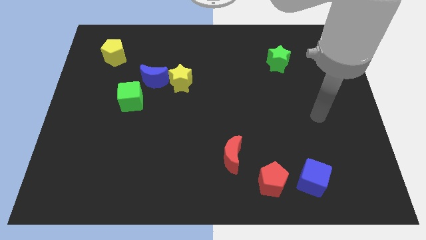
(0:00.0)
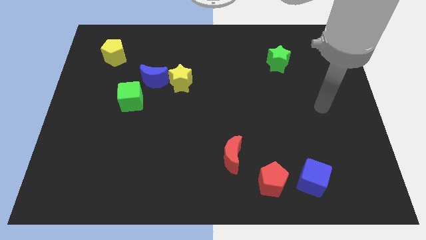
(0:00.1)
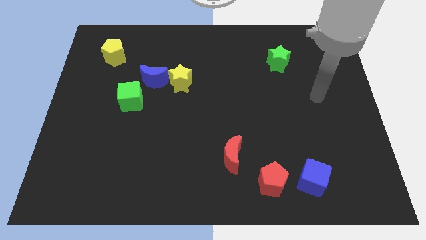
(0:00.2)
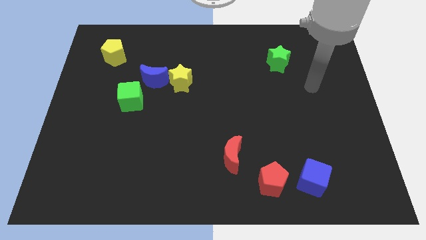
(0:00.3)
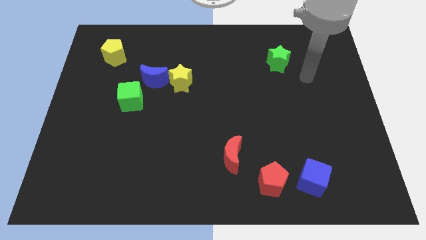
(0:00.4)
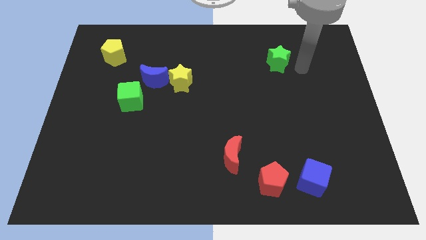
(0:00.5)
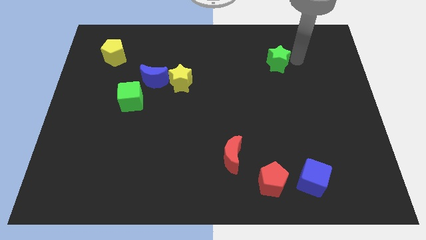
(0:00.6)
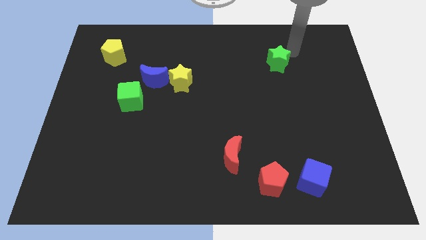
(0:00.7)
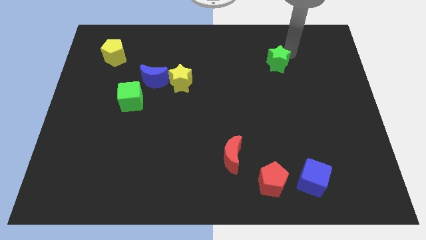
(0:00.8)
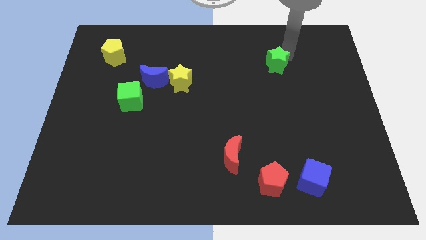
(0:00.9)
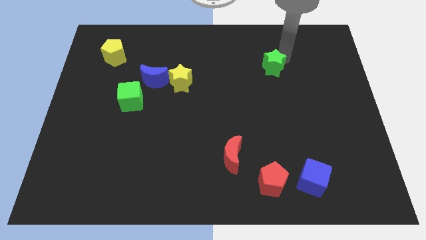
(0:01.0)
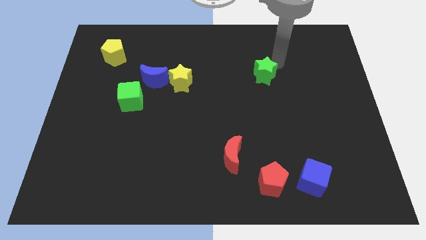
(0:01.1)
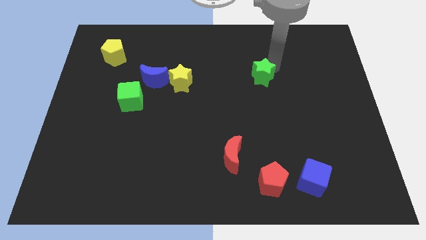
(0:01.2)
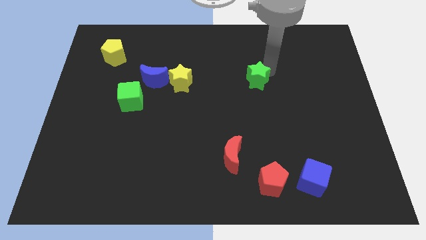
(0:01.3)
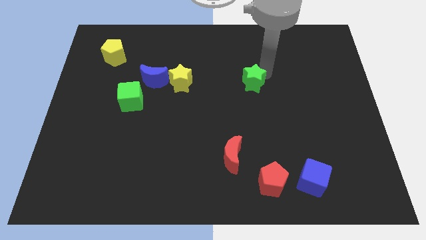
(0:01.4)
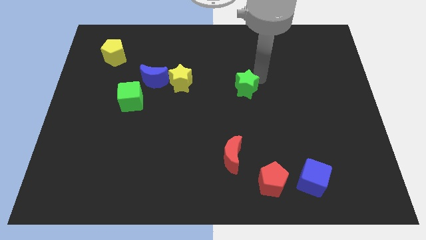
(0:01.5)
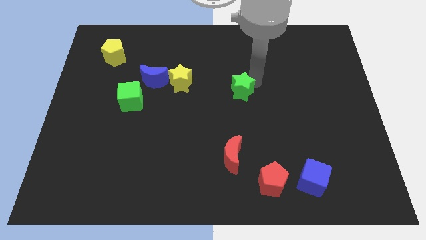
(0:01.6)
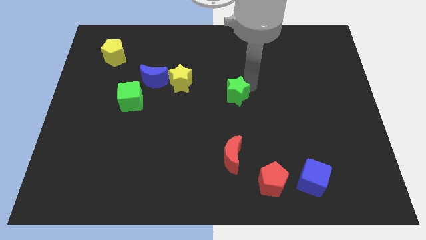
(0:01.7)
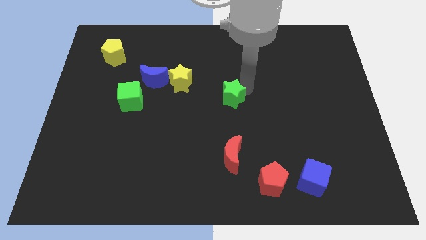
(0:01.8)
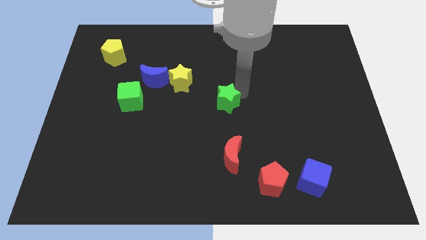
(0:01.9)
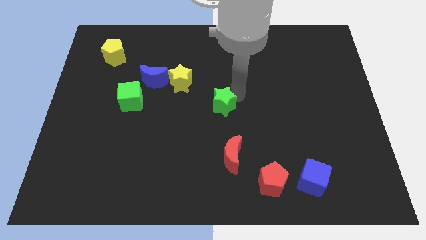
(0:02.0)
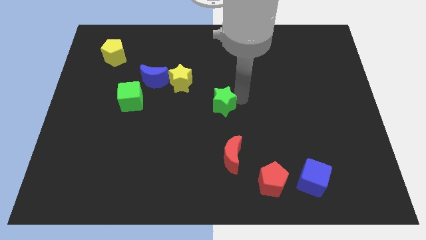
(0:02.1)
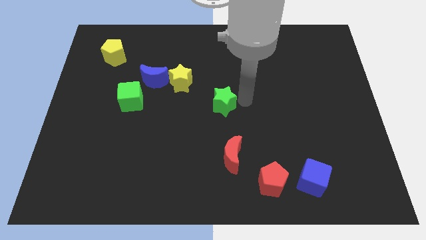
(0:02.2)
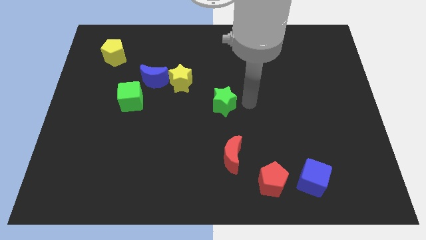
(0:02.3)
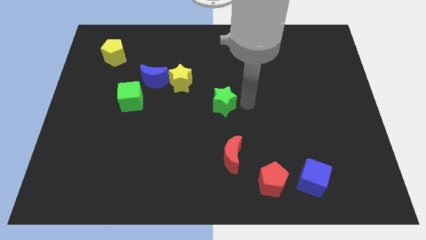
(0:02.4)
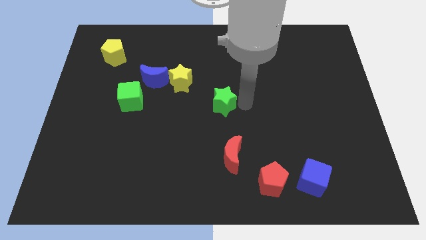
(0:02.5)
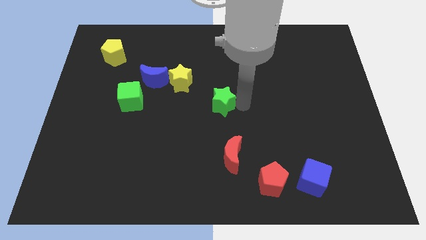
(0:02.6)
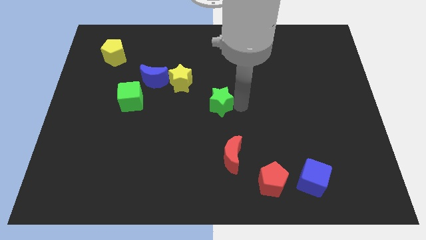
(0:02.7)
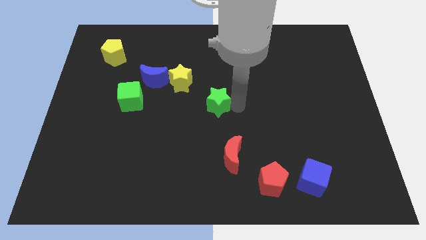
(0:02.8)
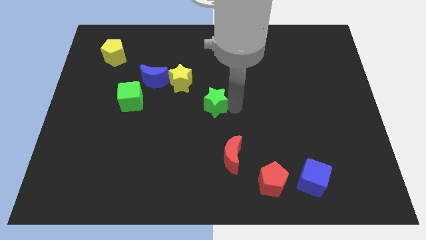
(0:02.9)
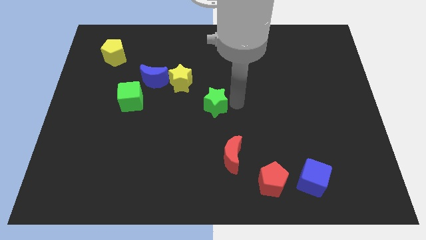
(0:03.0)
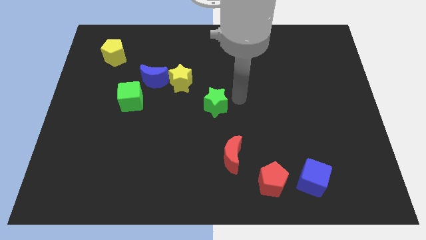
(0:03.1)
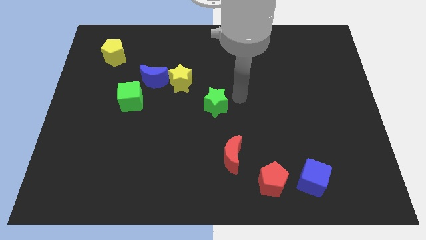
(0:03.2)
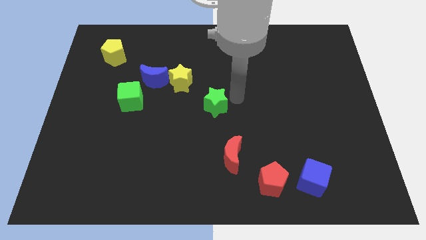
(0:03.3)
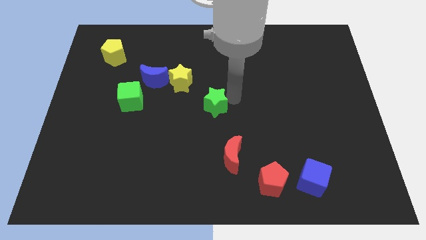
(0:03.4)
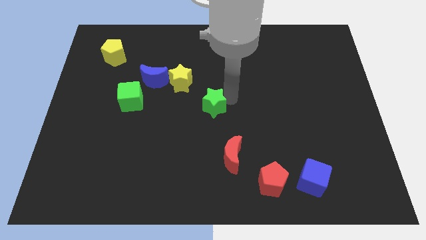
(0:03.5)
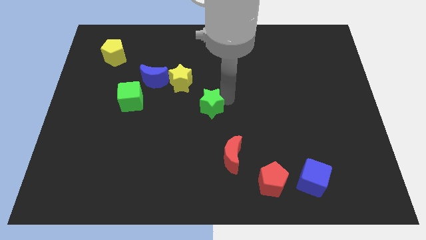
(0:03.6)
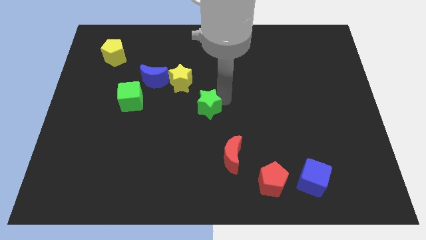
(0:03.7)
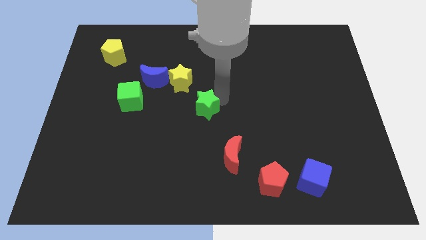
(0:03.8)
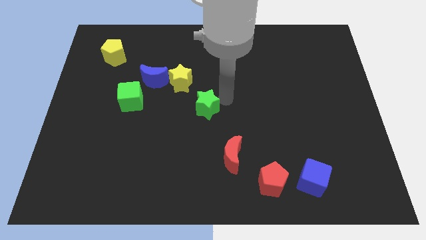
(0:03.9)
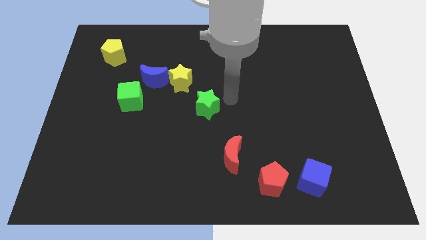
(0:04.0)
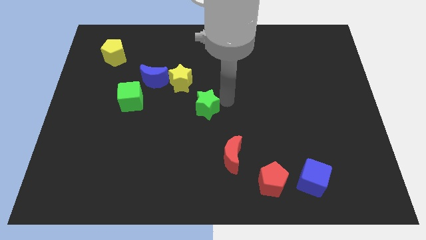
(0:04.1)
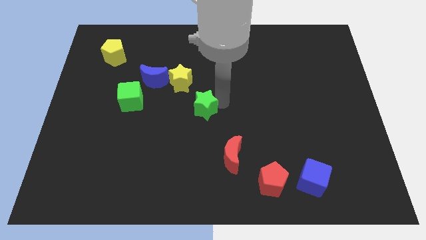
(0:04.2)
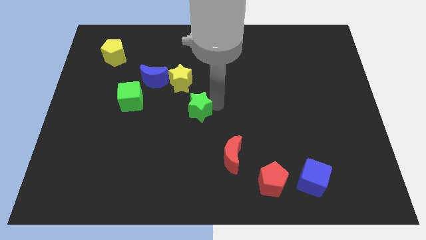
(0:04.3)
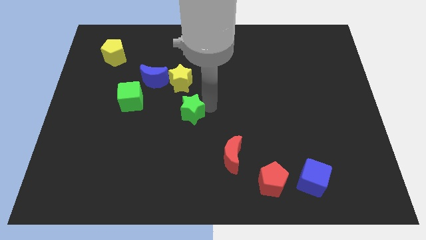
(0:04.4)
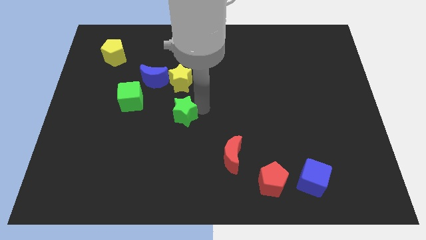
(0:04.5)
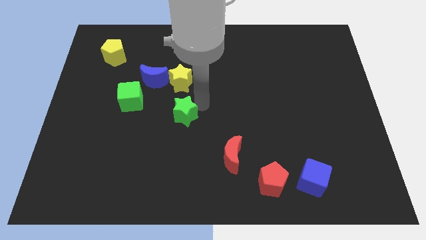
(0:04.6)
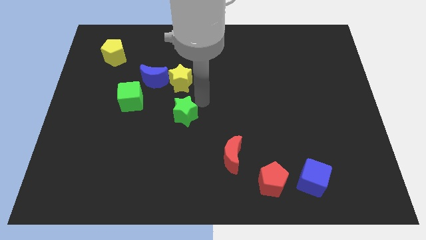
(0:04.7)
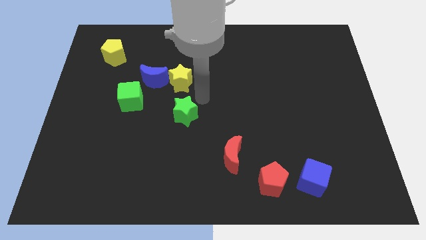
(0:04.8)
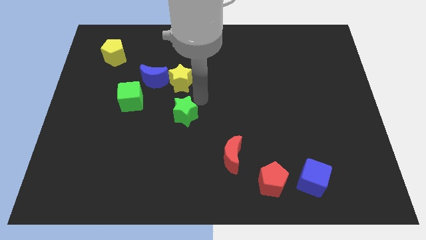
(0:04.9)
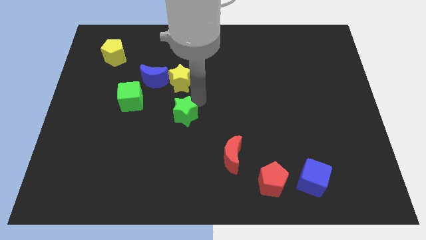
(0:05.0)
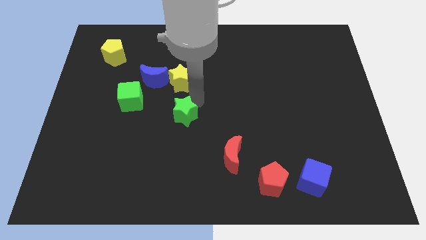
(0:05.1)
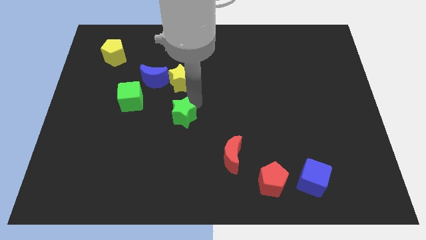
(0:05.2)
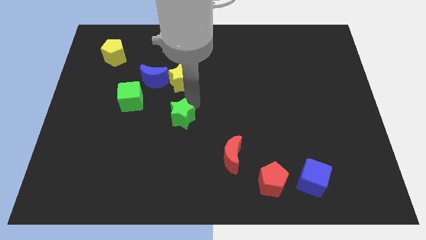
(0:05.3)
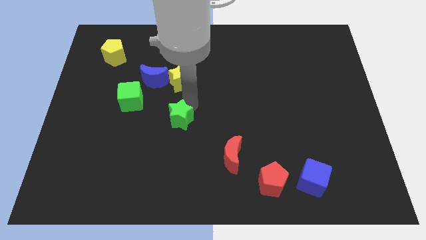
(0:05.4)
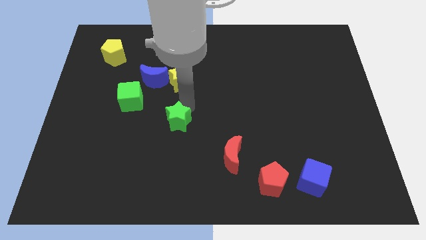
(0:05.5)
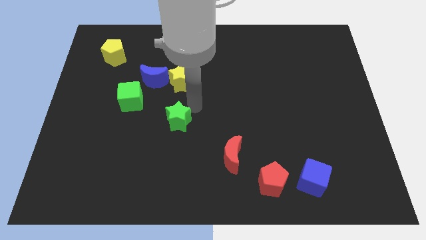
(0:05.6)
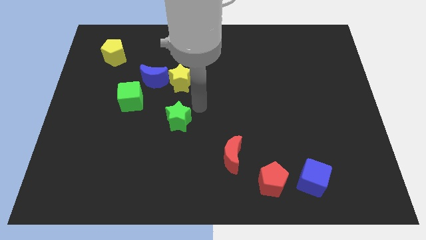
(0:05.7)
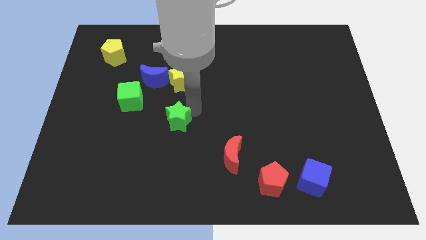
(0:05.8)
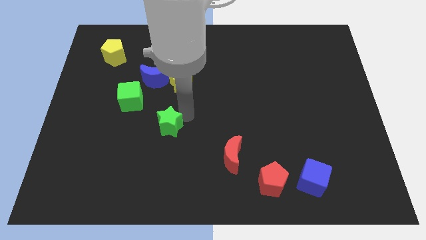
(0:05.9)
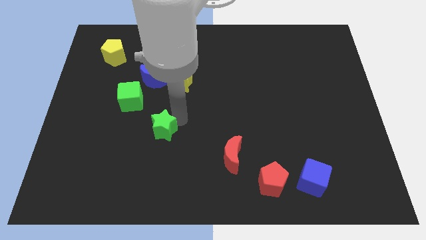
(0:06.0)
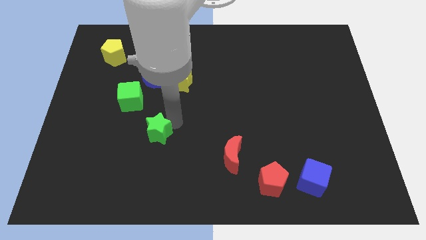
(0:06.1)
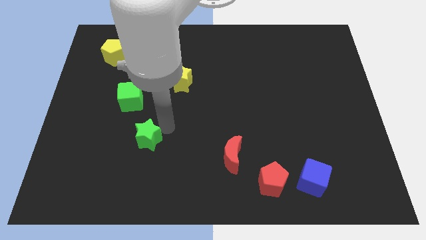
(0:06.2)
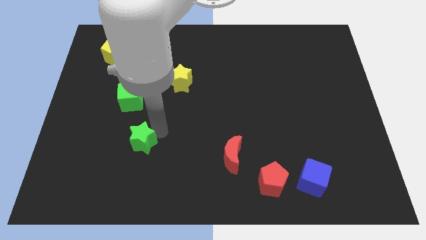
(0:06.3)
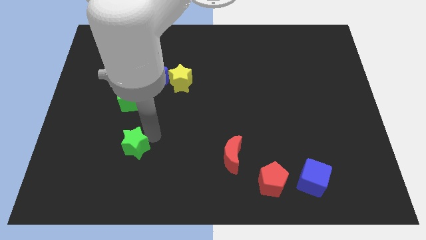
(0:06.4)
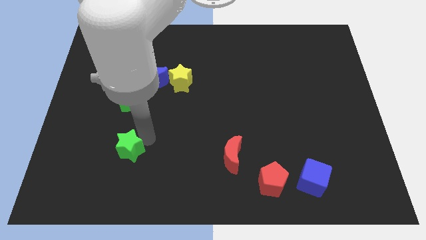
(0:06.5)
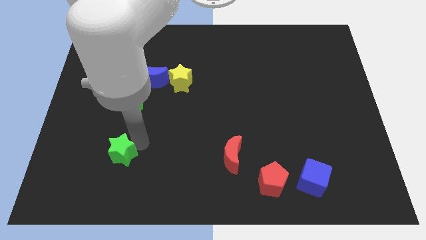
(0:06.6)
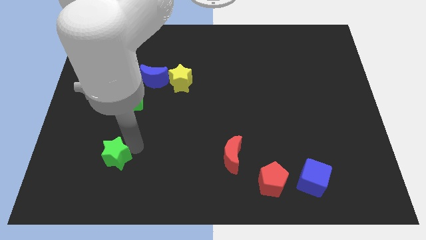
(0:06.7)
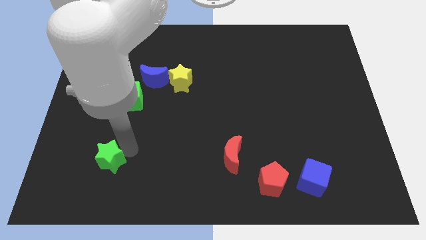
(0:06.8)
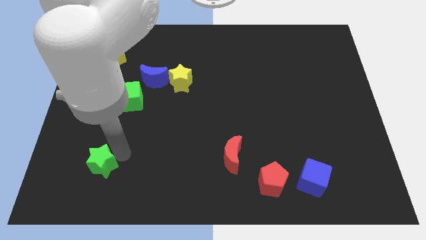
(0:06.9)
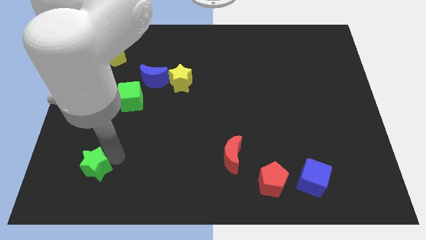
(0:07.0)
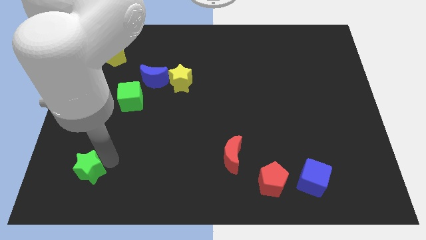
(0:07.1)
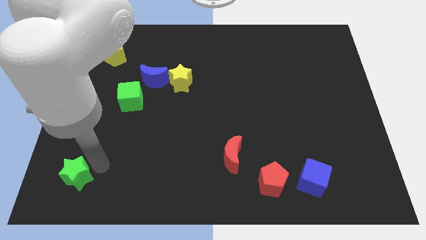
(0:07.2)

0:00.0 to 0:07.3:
move the green star to the bottom left of the board
